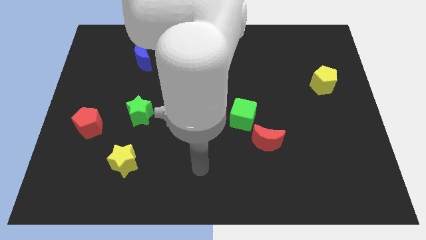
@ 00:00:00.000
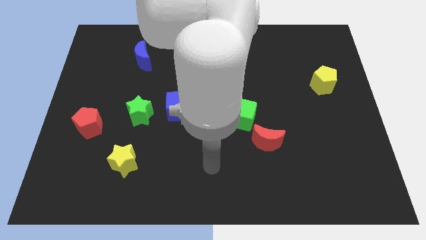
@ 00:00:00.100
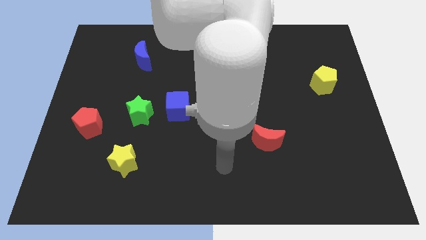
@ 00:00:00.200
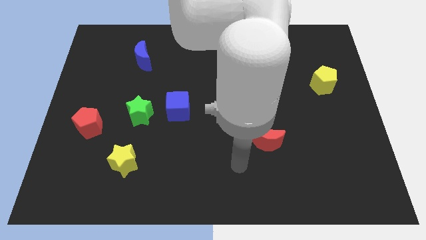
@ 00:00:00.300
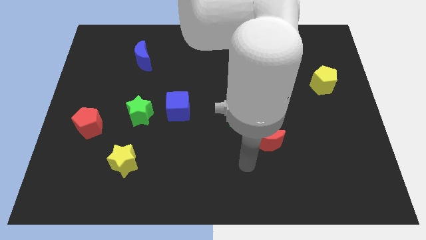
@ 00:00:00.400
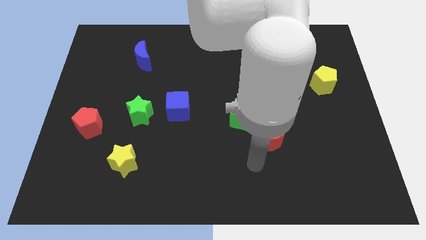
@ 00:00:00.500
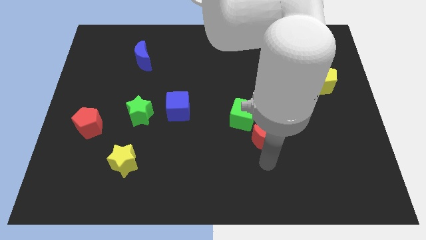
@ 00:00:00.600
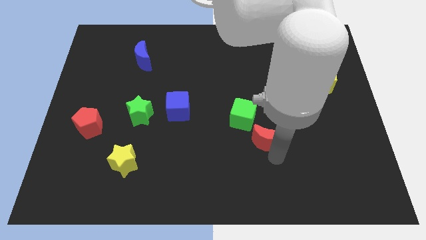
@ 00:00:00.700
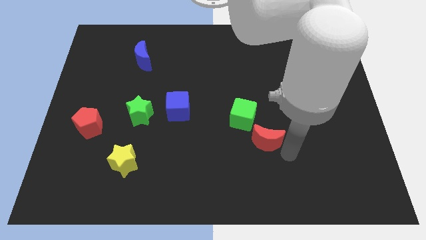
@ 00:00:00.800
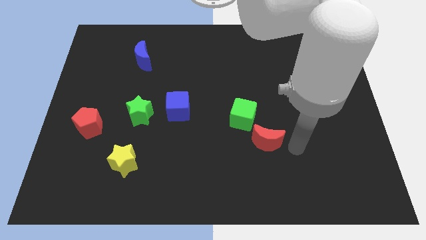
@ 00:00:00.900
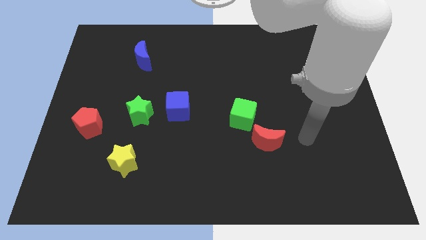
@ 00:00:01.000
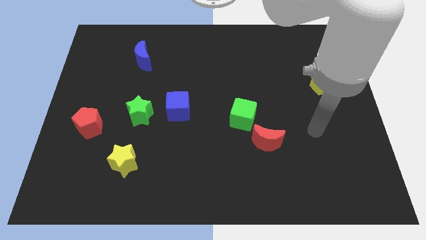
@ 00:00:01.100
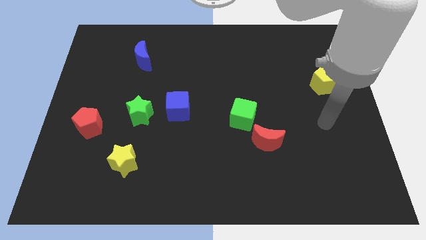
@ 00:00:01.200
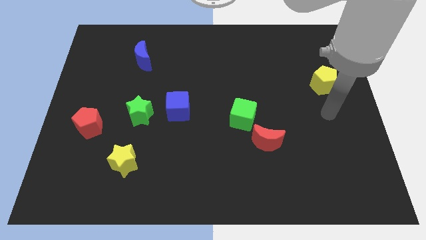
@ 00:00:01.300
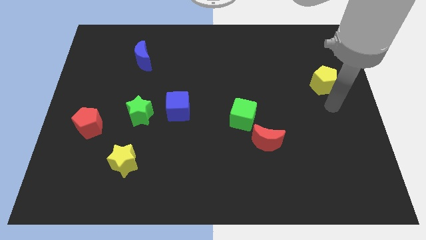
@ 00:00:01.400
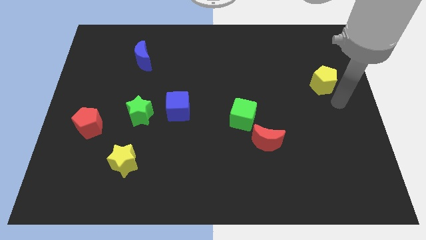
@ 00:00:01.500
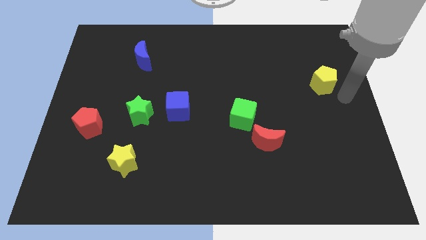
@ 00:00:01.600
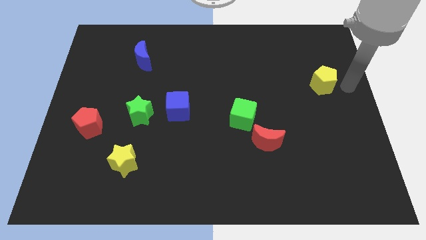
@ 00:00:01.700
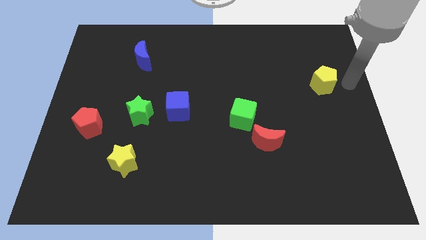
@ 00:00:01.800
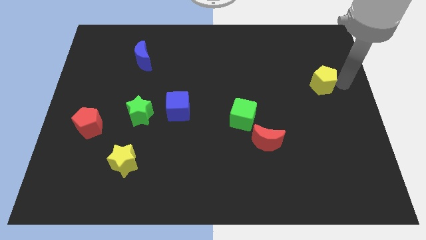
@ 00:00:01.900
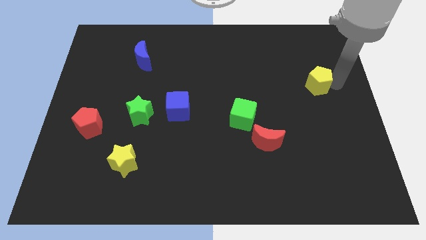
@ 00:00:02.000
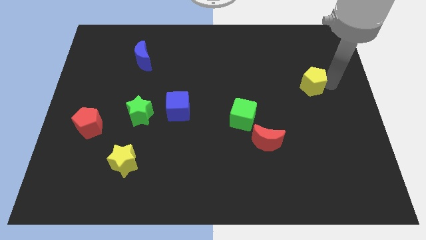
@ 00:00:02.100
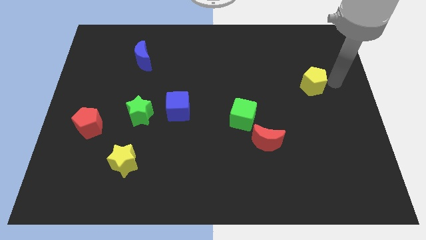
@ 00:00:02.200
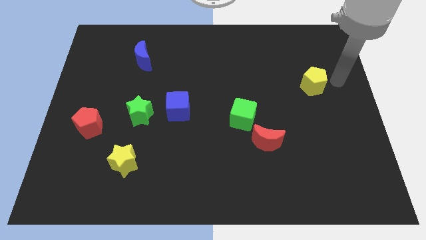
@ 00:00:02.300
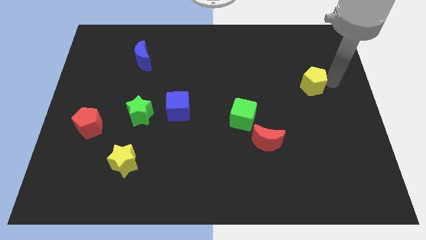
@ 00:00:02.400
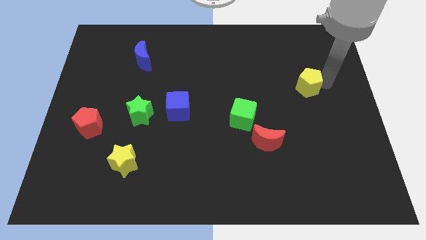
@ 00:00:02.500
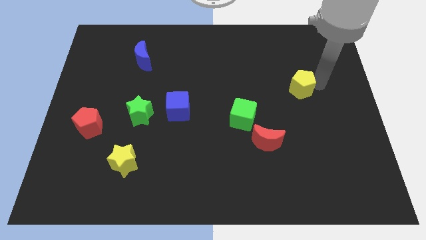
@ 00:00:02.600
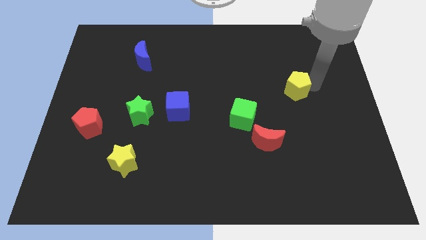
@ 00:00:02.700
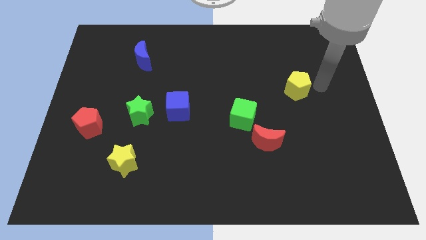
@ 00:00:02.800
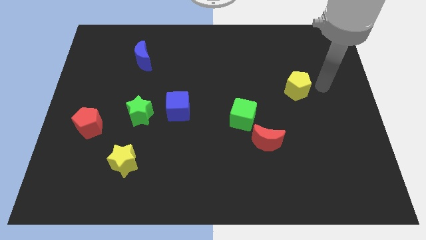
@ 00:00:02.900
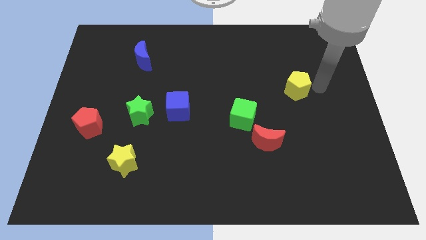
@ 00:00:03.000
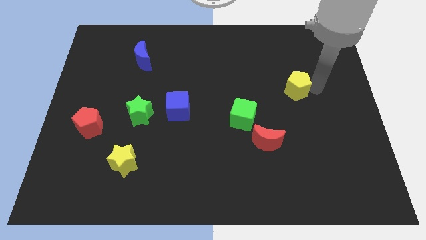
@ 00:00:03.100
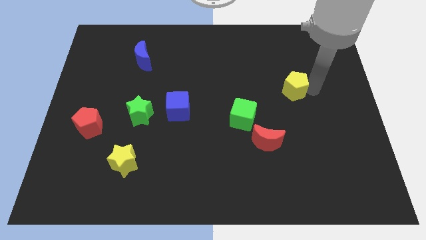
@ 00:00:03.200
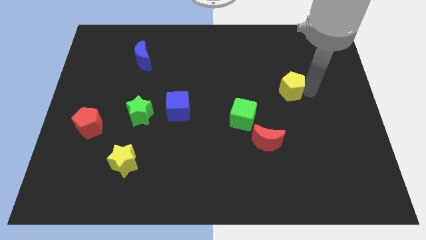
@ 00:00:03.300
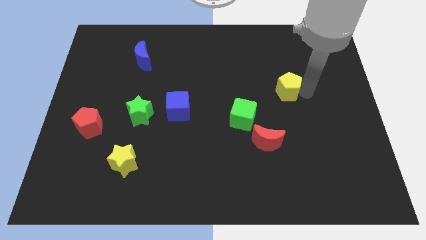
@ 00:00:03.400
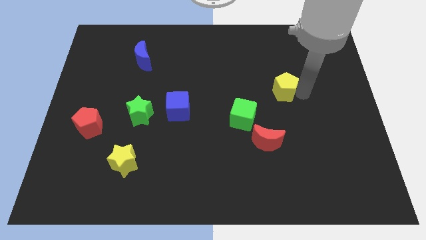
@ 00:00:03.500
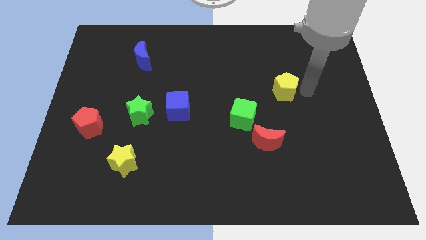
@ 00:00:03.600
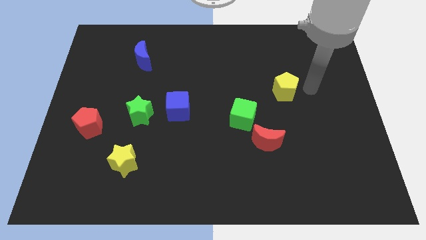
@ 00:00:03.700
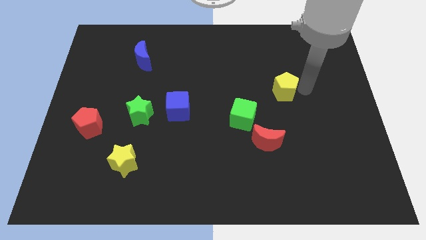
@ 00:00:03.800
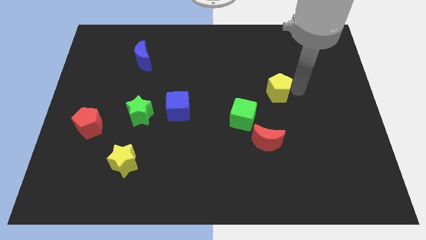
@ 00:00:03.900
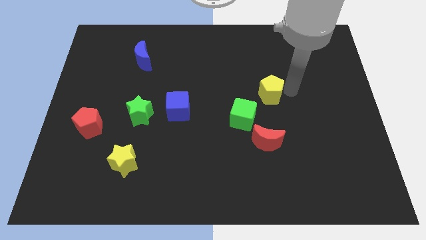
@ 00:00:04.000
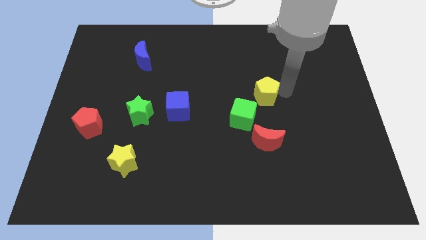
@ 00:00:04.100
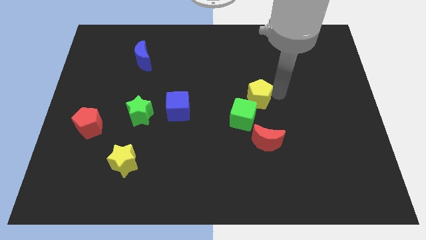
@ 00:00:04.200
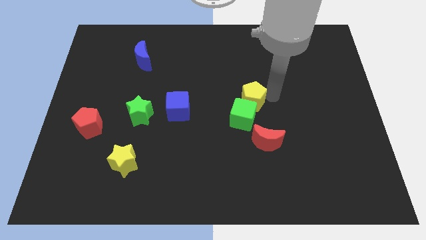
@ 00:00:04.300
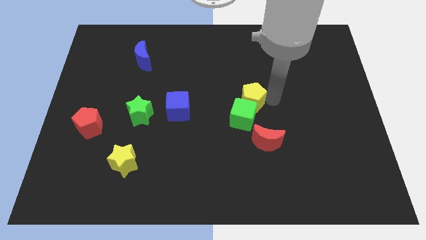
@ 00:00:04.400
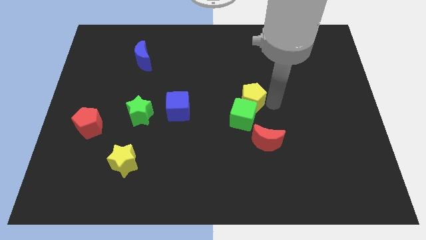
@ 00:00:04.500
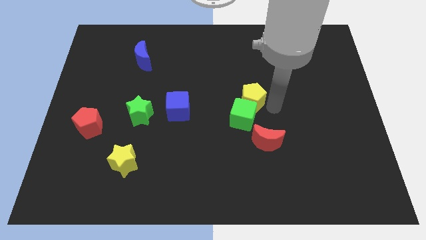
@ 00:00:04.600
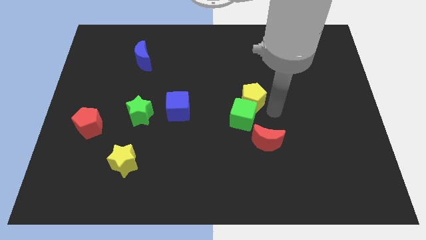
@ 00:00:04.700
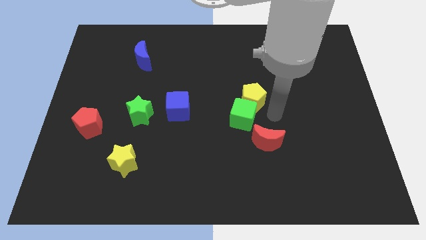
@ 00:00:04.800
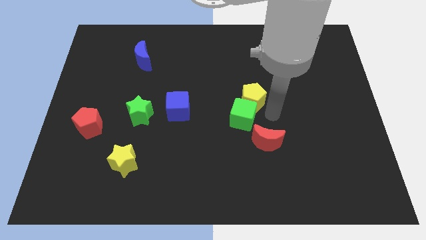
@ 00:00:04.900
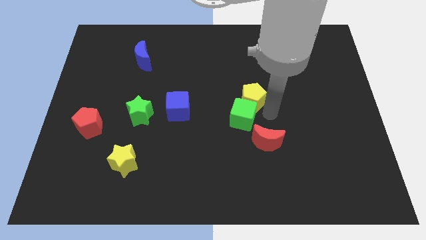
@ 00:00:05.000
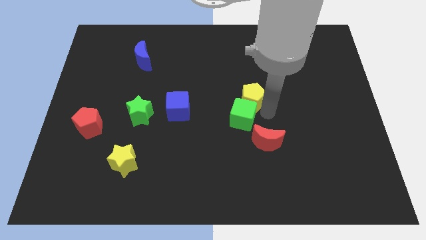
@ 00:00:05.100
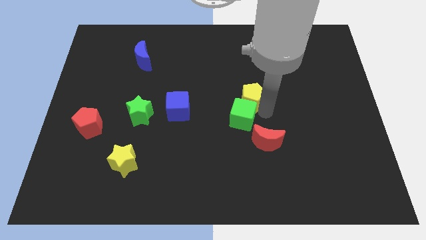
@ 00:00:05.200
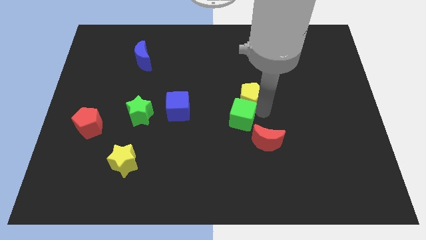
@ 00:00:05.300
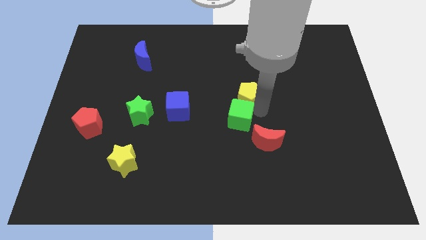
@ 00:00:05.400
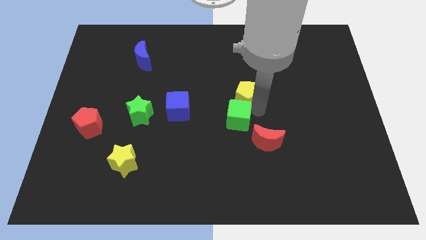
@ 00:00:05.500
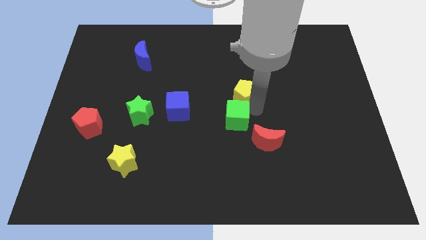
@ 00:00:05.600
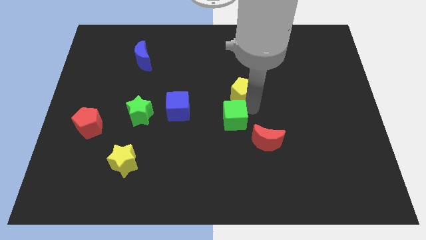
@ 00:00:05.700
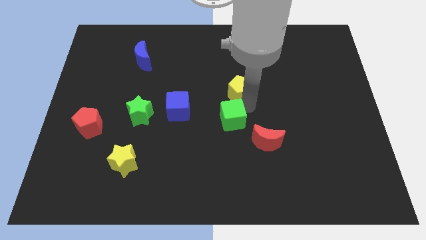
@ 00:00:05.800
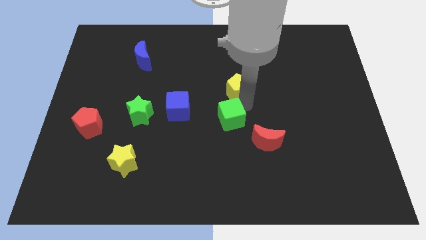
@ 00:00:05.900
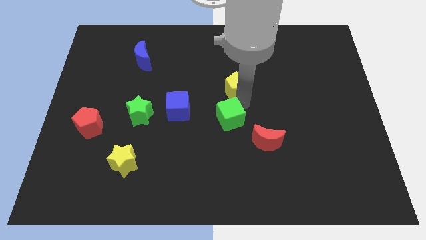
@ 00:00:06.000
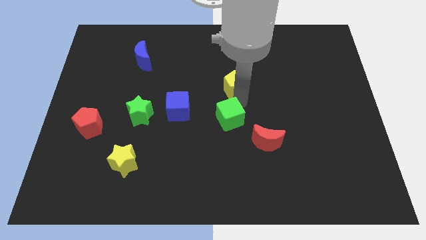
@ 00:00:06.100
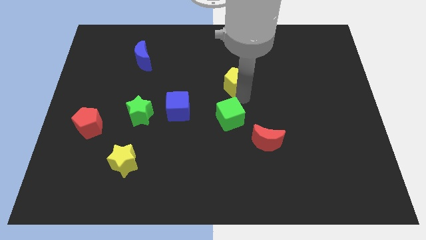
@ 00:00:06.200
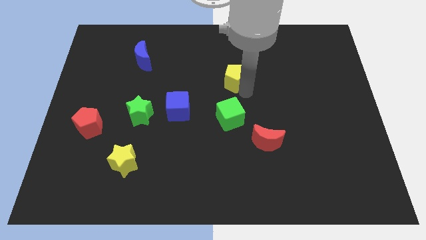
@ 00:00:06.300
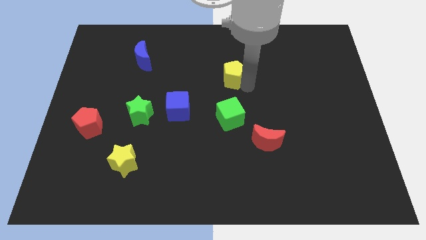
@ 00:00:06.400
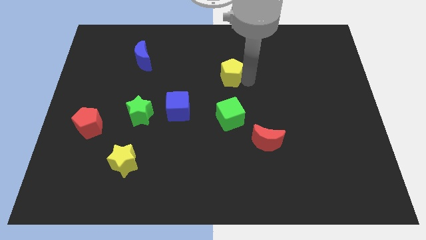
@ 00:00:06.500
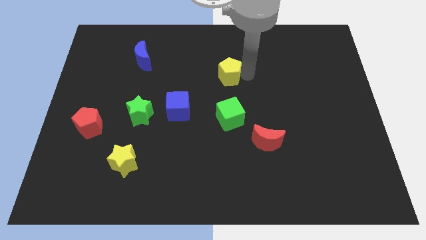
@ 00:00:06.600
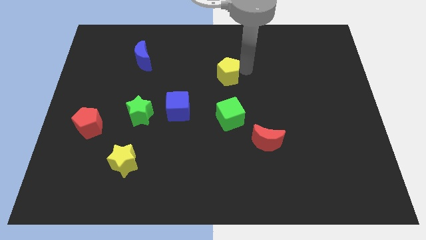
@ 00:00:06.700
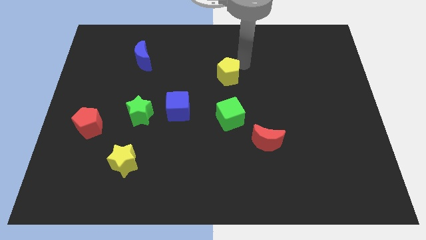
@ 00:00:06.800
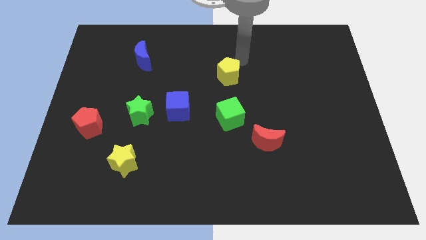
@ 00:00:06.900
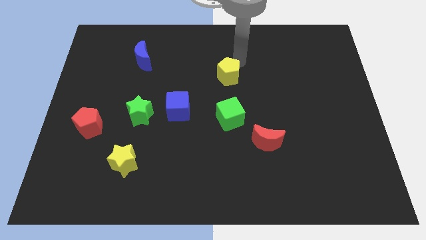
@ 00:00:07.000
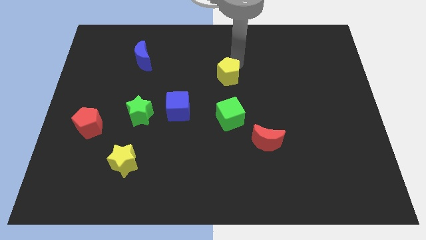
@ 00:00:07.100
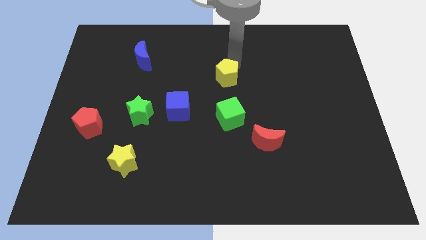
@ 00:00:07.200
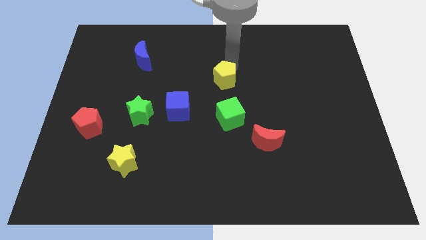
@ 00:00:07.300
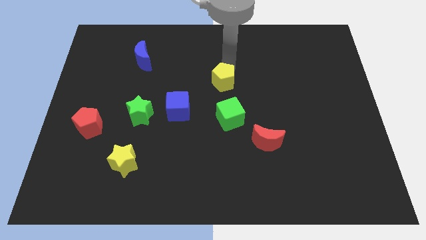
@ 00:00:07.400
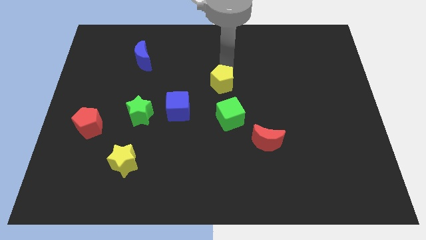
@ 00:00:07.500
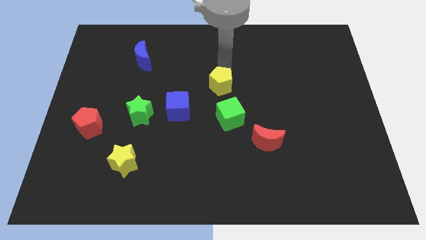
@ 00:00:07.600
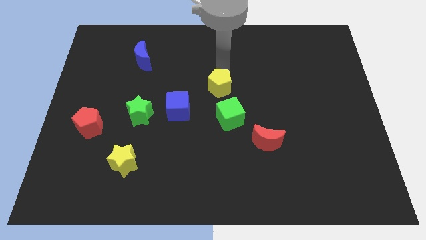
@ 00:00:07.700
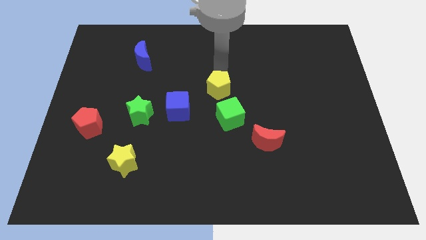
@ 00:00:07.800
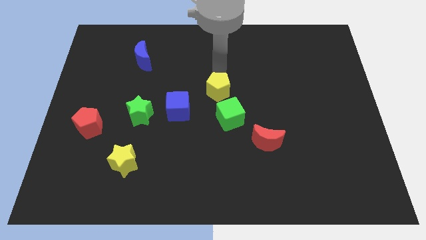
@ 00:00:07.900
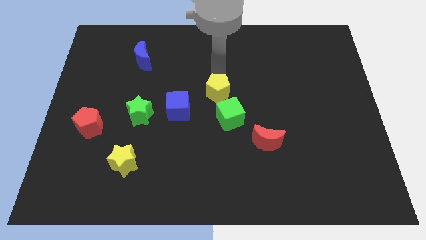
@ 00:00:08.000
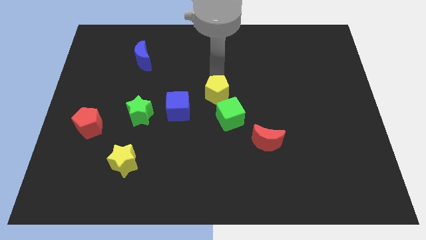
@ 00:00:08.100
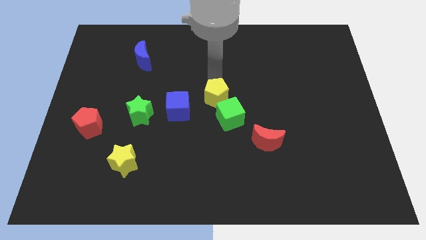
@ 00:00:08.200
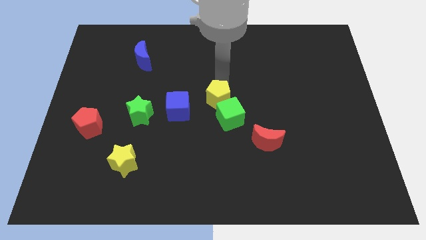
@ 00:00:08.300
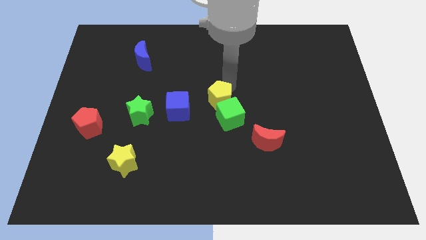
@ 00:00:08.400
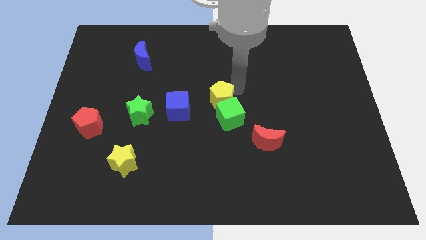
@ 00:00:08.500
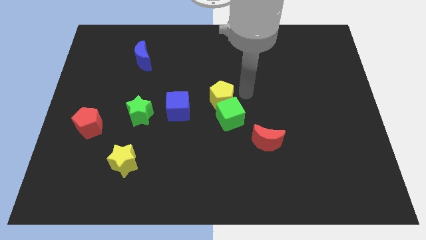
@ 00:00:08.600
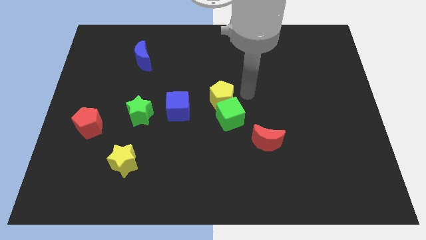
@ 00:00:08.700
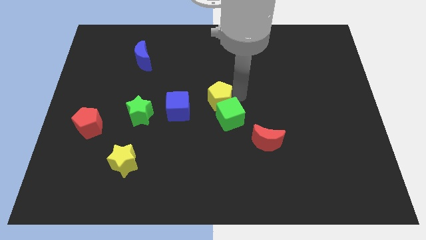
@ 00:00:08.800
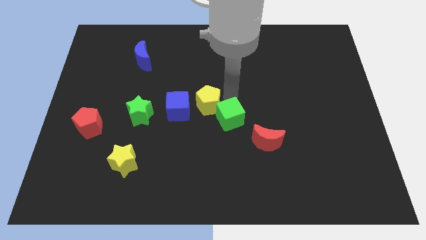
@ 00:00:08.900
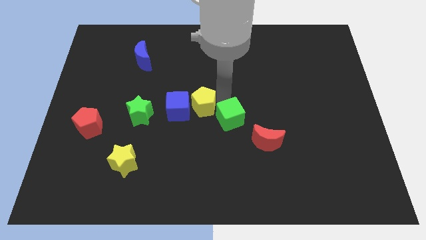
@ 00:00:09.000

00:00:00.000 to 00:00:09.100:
slide the yellow pentagon to the blue cube
